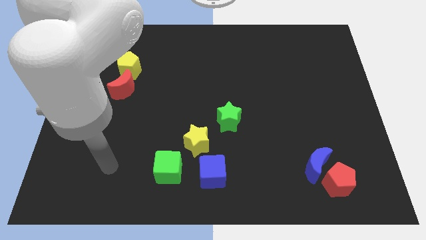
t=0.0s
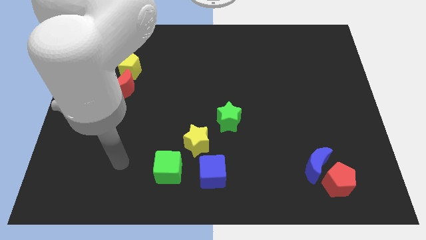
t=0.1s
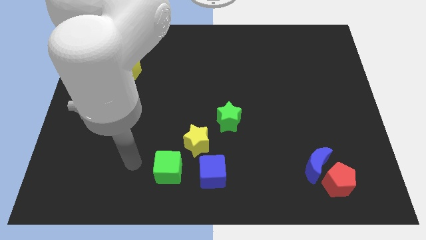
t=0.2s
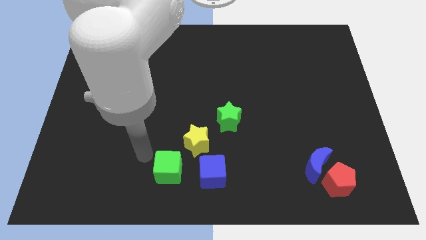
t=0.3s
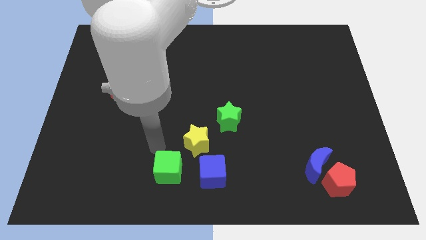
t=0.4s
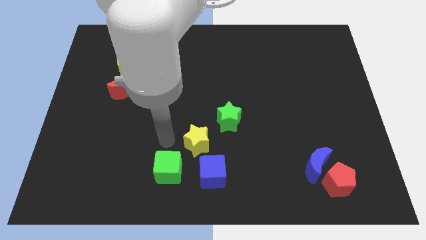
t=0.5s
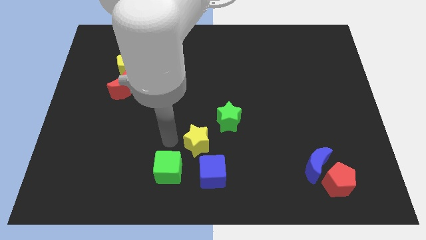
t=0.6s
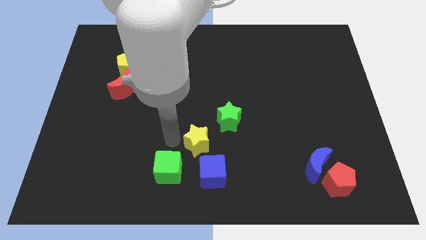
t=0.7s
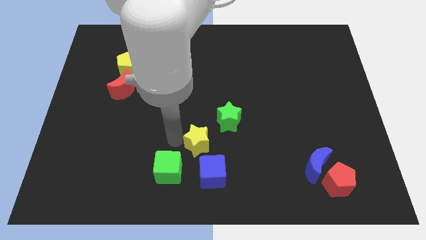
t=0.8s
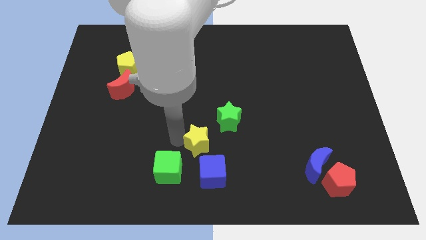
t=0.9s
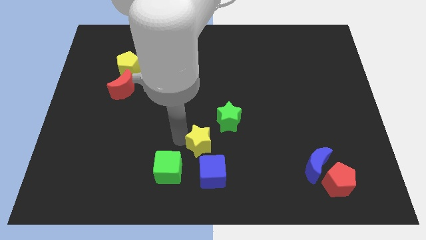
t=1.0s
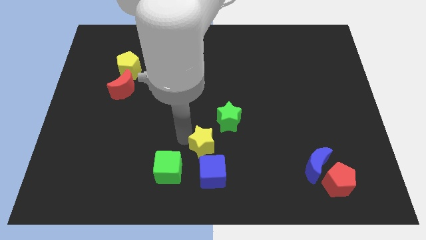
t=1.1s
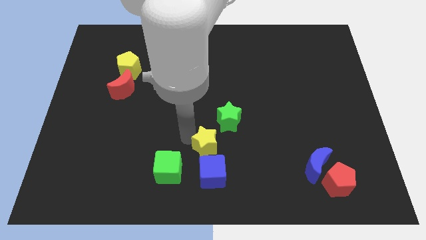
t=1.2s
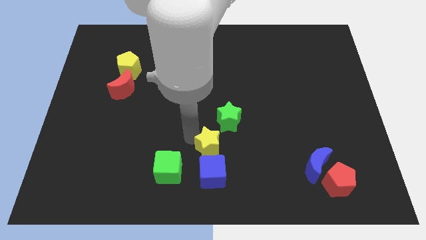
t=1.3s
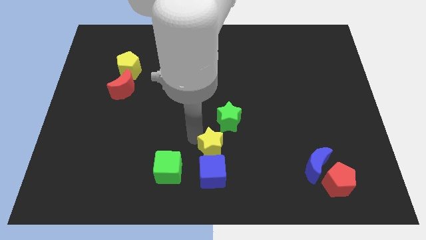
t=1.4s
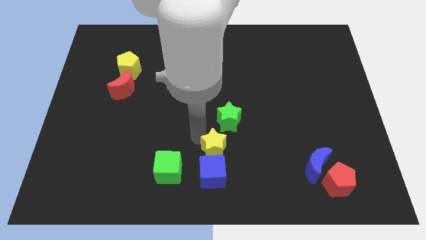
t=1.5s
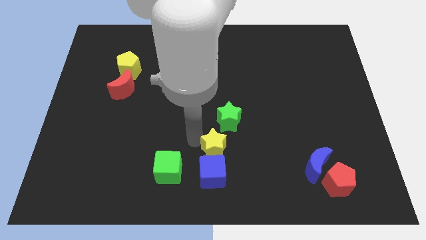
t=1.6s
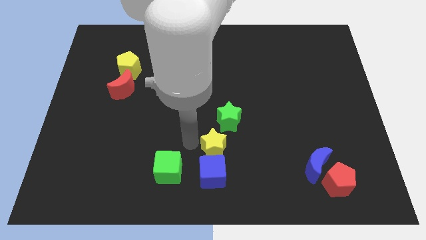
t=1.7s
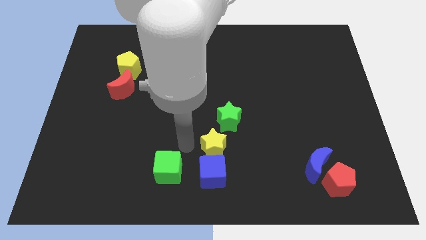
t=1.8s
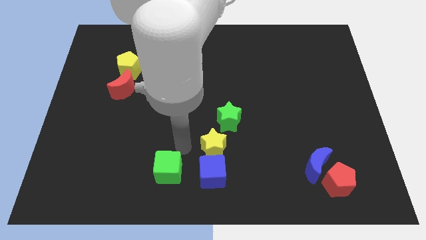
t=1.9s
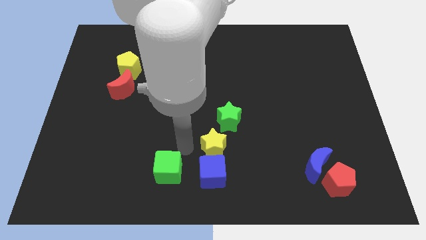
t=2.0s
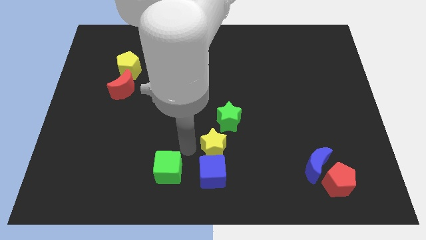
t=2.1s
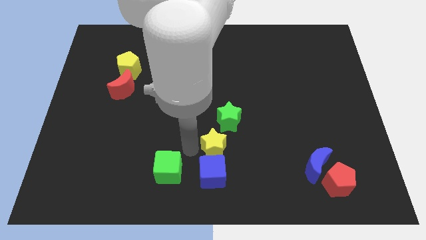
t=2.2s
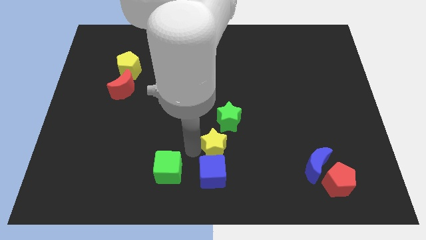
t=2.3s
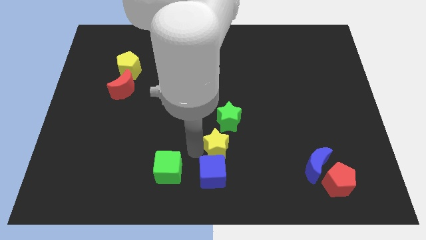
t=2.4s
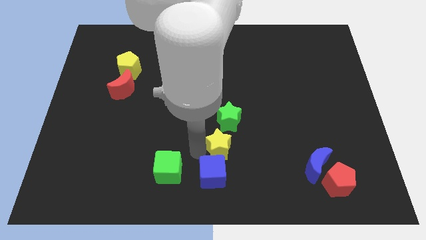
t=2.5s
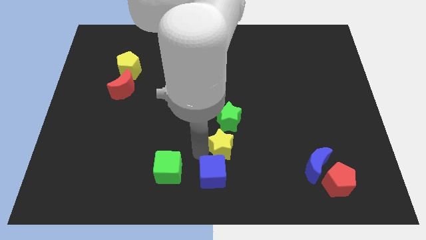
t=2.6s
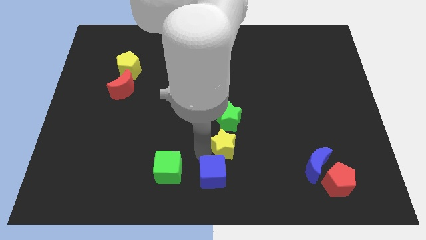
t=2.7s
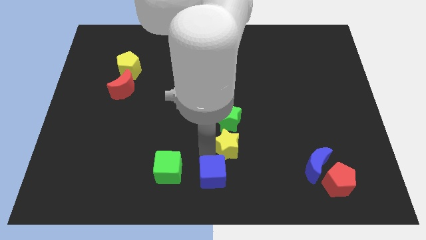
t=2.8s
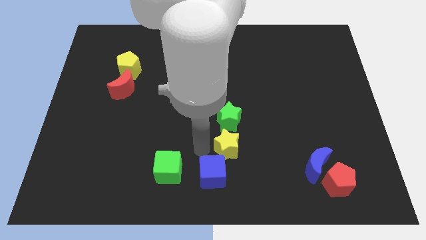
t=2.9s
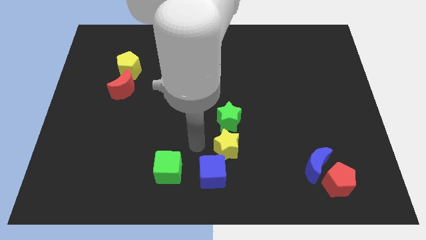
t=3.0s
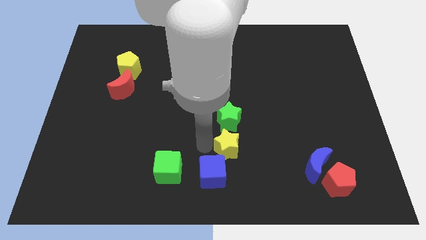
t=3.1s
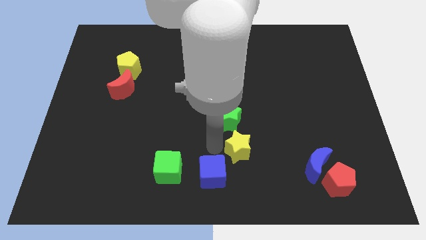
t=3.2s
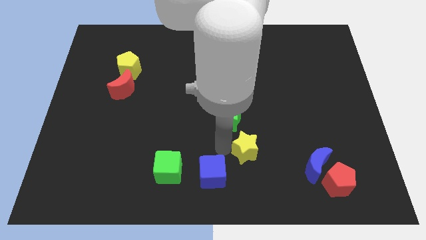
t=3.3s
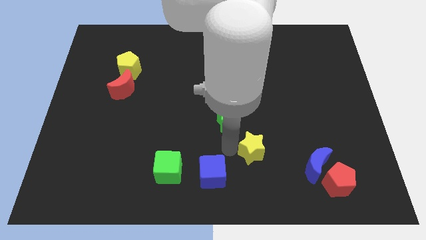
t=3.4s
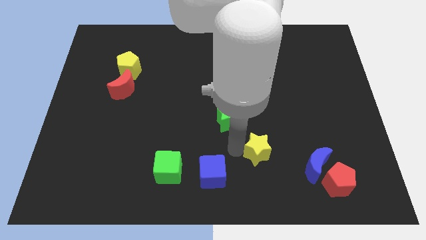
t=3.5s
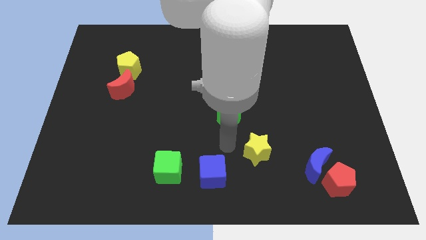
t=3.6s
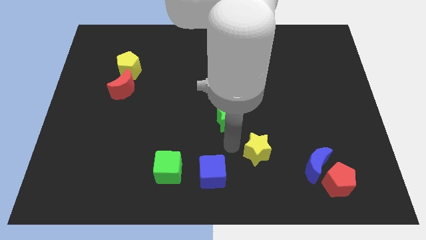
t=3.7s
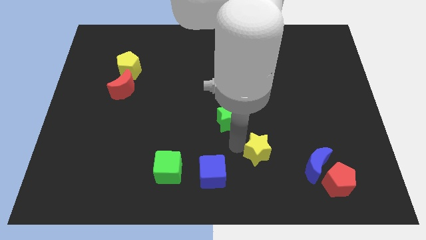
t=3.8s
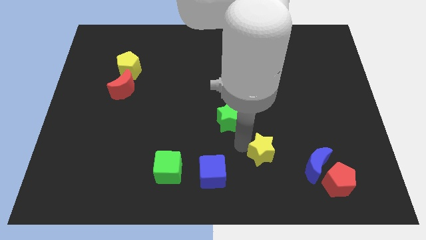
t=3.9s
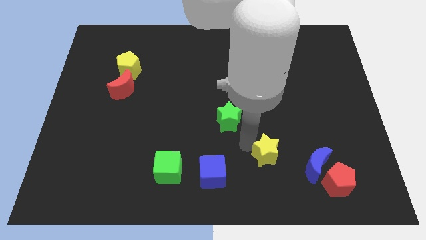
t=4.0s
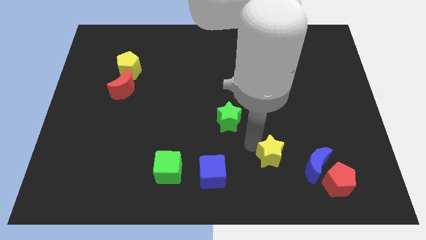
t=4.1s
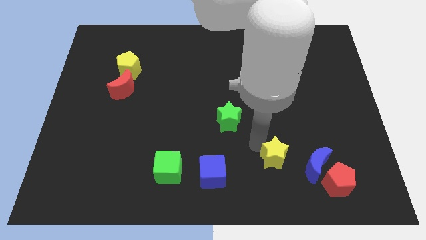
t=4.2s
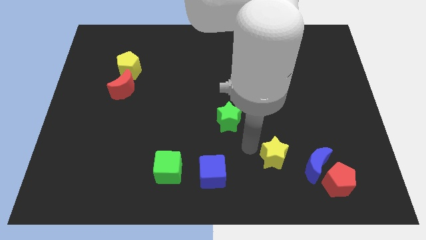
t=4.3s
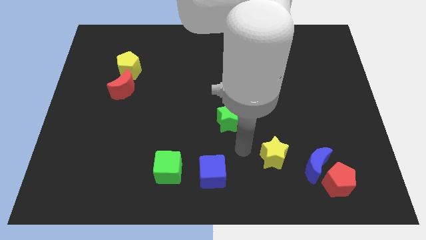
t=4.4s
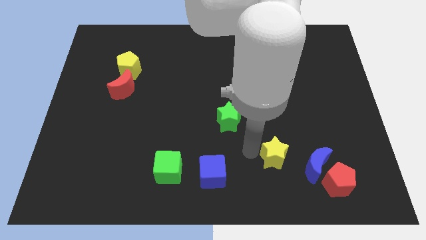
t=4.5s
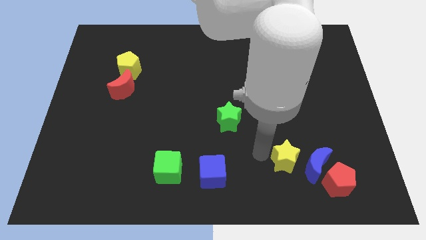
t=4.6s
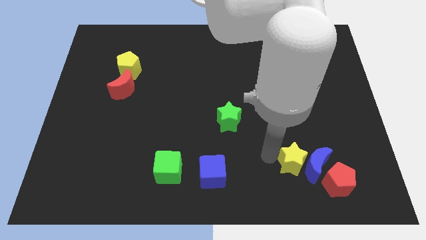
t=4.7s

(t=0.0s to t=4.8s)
slide the yellow star towards the blue moon

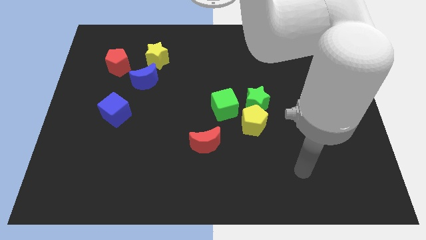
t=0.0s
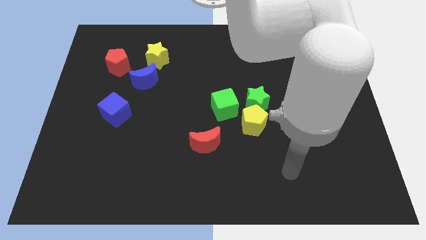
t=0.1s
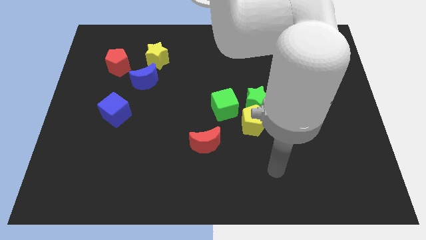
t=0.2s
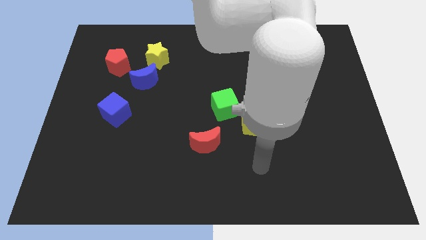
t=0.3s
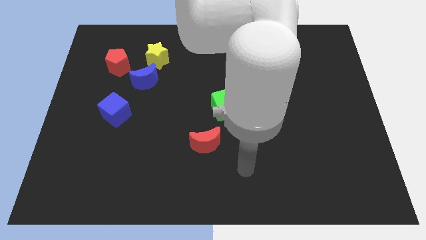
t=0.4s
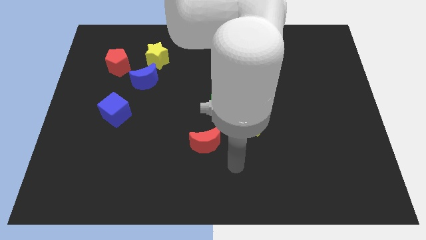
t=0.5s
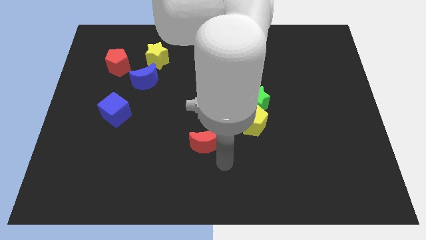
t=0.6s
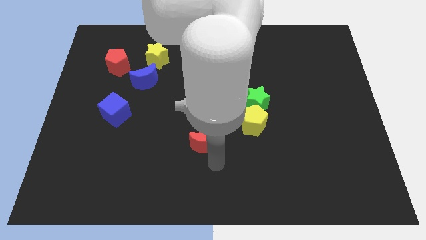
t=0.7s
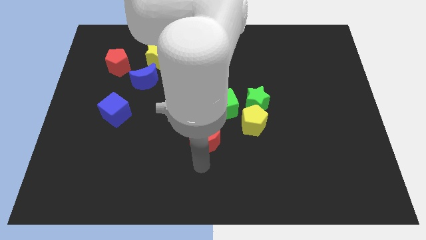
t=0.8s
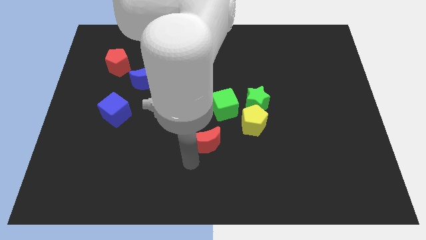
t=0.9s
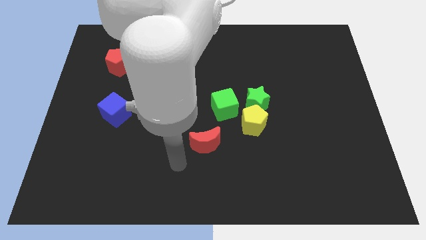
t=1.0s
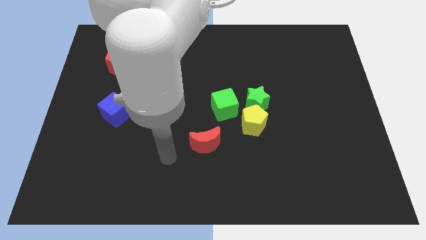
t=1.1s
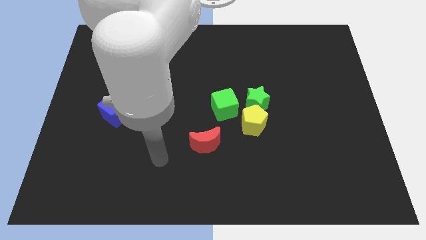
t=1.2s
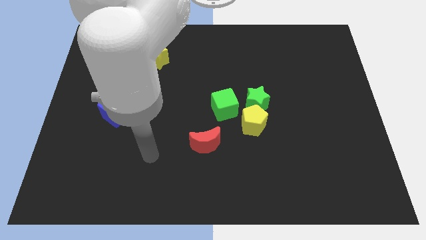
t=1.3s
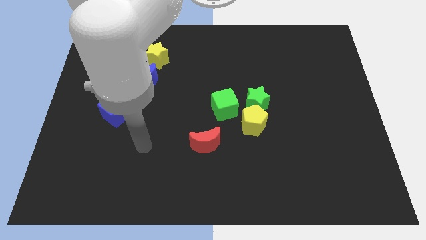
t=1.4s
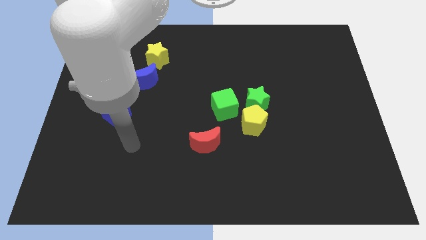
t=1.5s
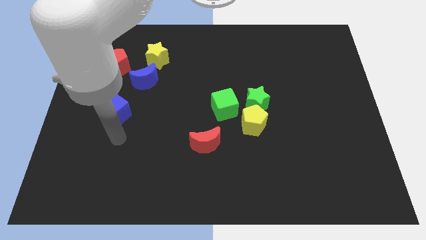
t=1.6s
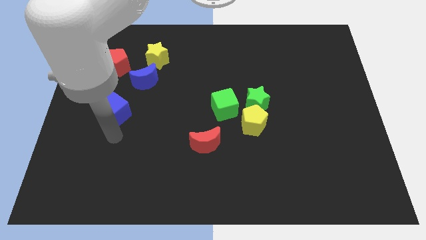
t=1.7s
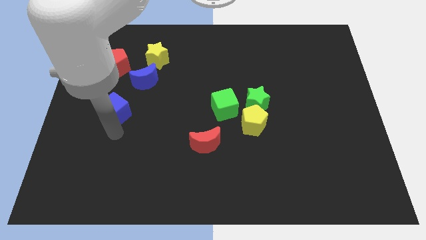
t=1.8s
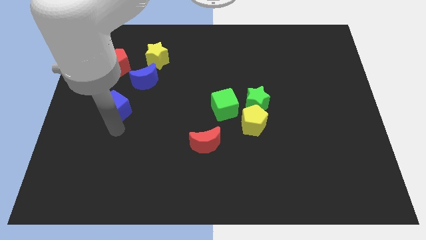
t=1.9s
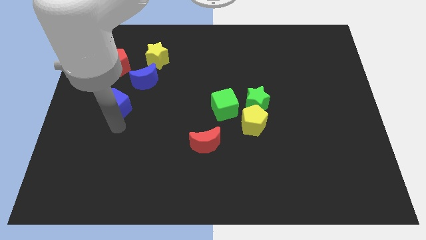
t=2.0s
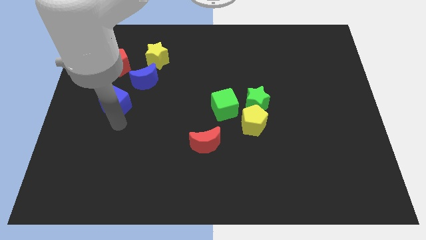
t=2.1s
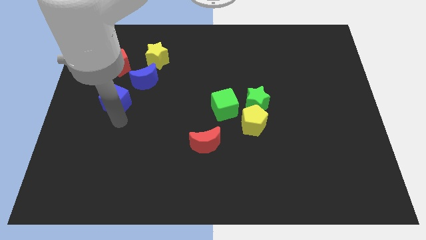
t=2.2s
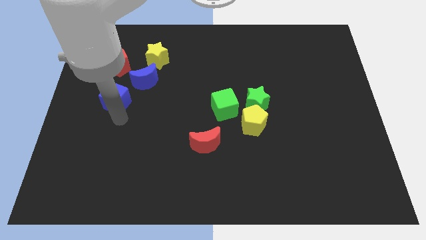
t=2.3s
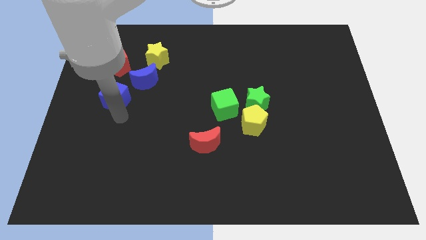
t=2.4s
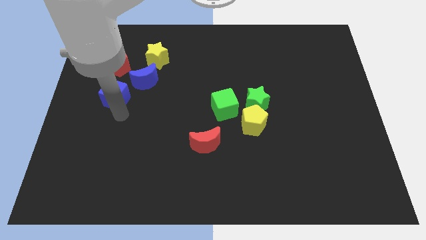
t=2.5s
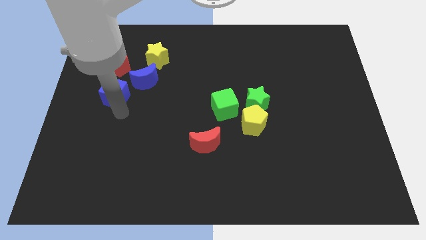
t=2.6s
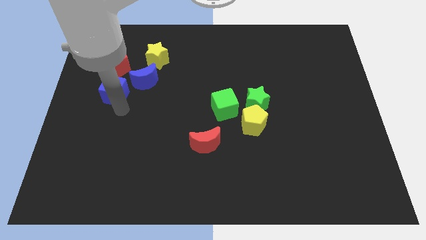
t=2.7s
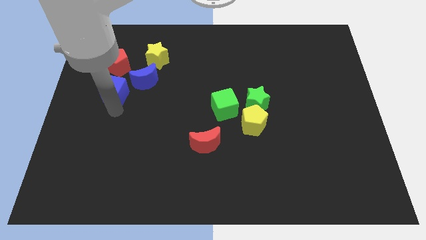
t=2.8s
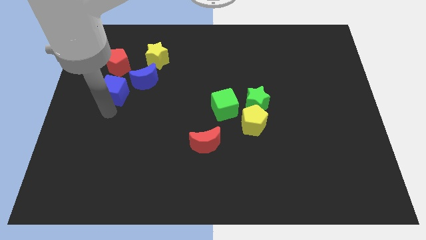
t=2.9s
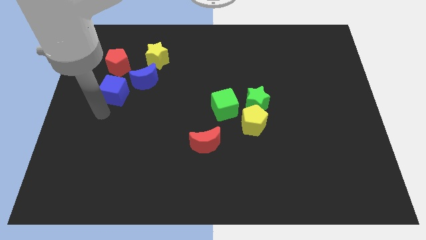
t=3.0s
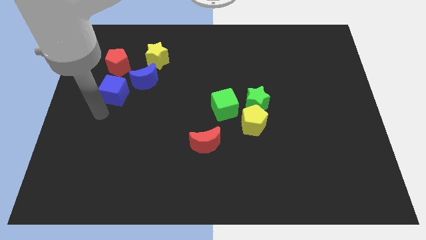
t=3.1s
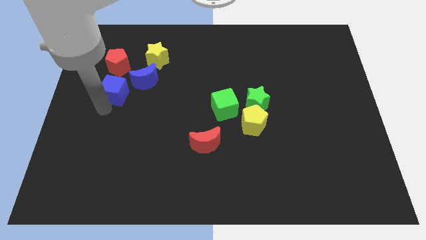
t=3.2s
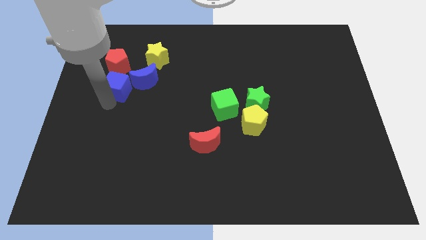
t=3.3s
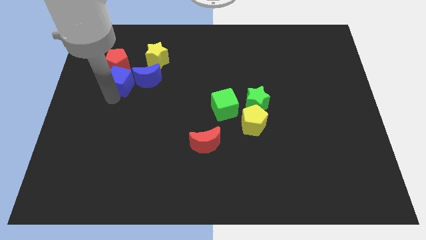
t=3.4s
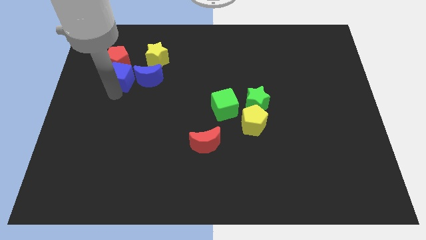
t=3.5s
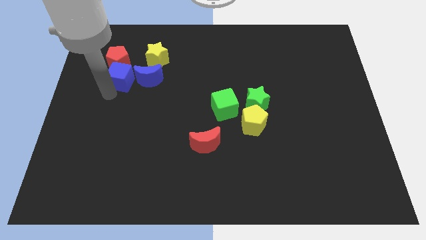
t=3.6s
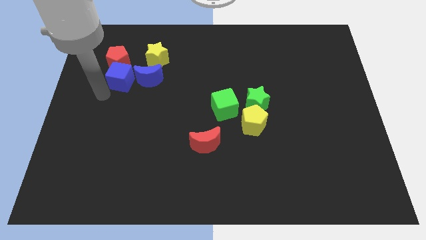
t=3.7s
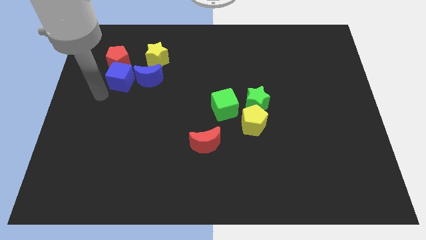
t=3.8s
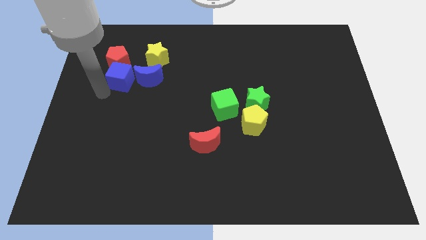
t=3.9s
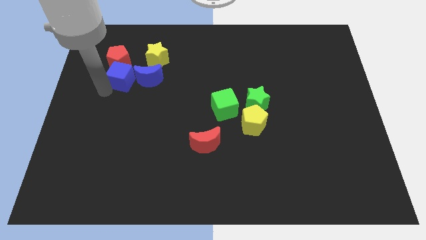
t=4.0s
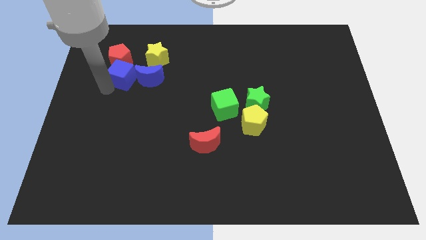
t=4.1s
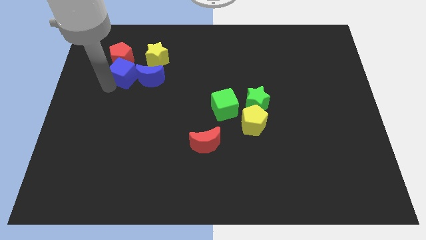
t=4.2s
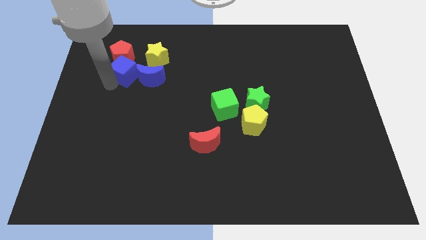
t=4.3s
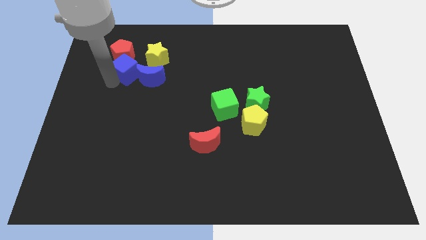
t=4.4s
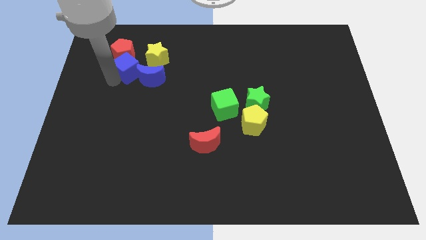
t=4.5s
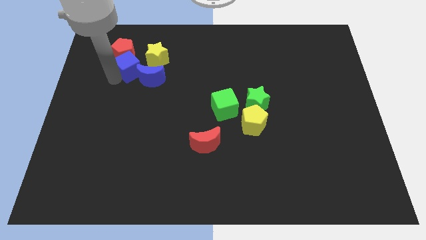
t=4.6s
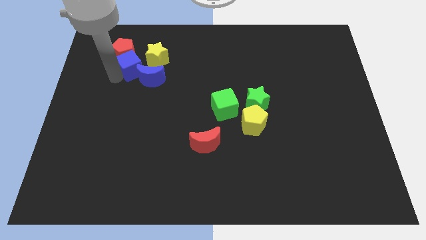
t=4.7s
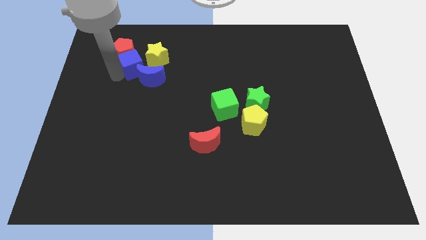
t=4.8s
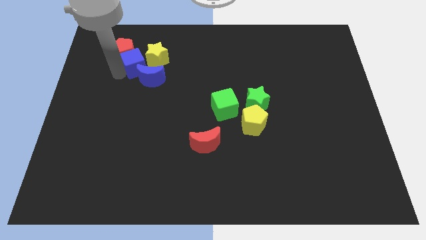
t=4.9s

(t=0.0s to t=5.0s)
move the blue cube next to the yellow star
